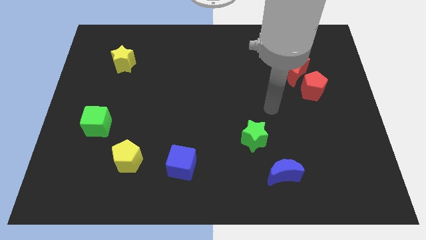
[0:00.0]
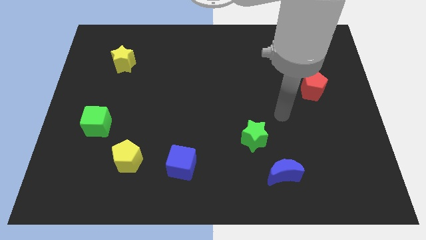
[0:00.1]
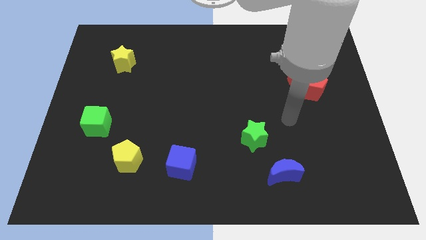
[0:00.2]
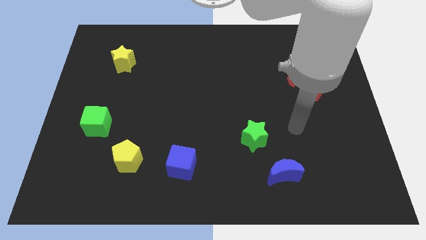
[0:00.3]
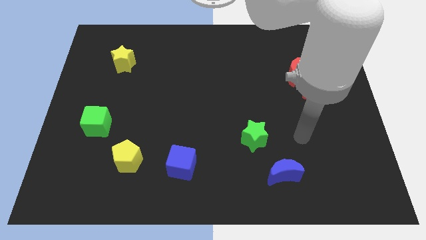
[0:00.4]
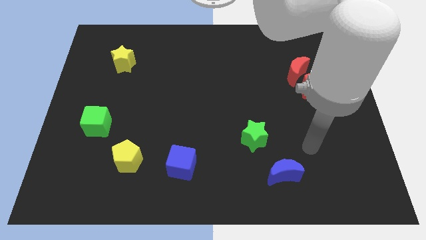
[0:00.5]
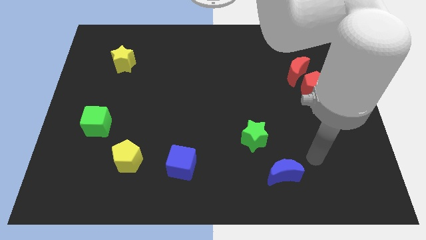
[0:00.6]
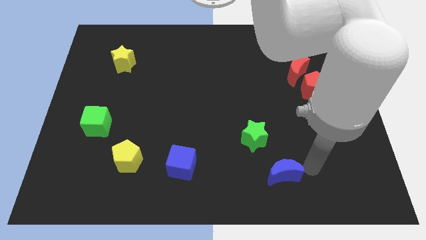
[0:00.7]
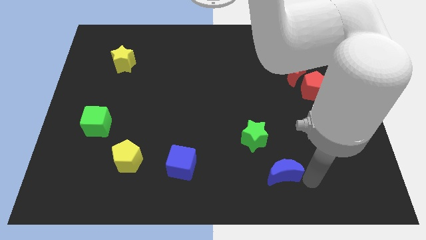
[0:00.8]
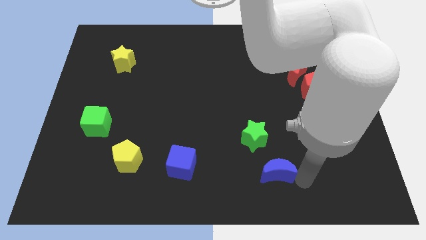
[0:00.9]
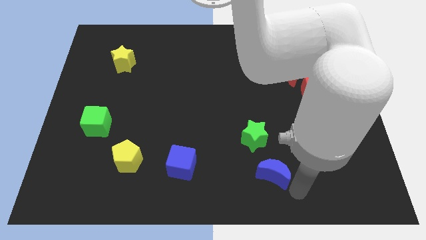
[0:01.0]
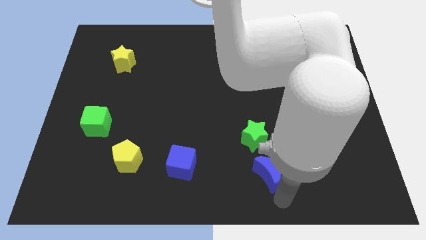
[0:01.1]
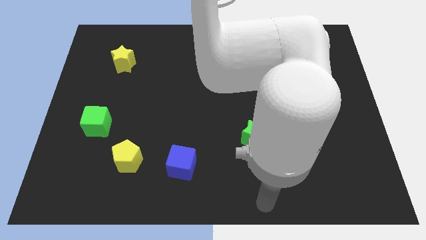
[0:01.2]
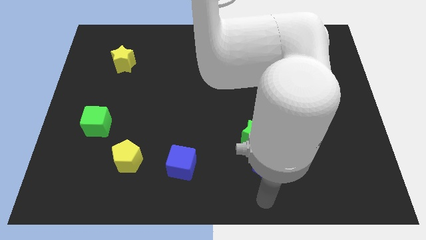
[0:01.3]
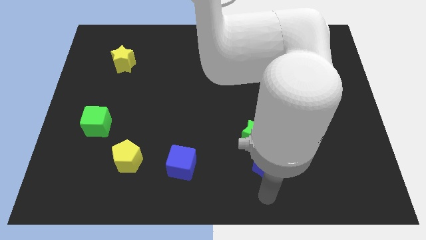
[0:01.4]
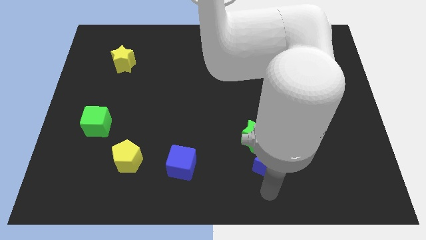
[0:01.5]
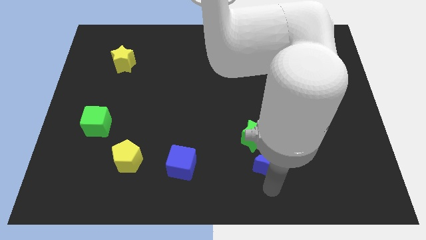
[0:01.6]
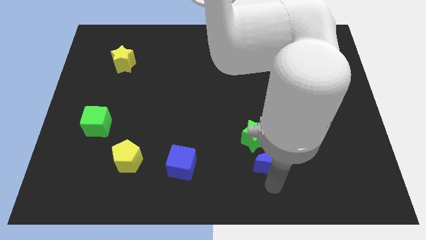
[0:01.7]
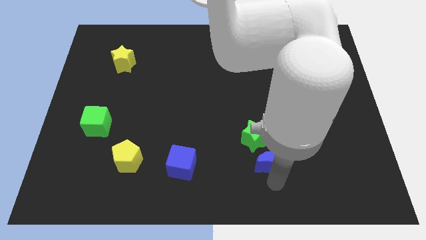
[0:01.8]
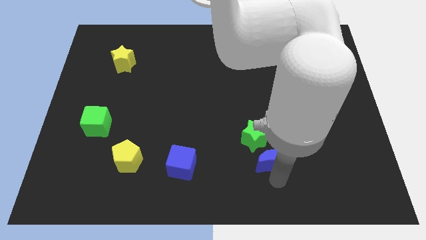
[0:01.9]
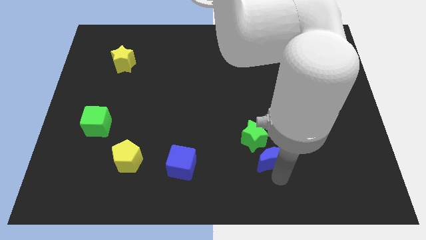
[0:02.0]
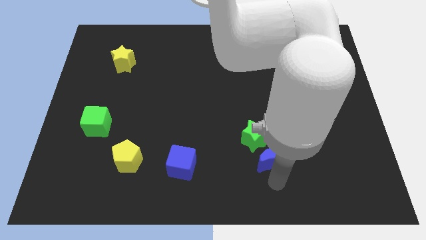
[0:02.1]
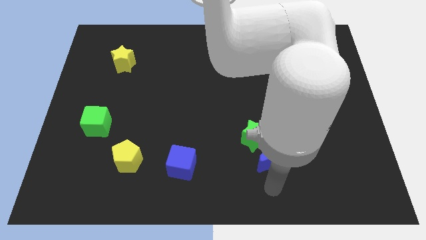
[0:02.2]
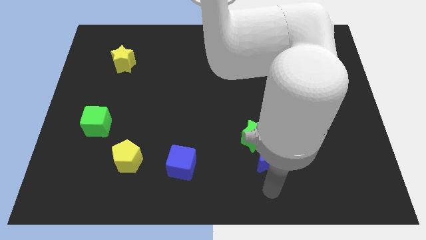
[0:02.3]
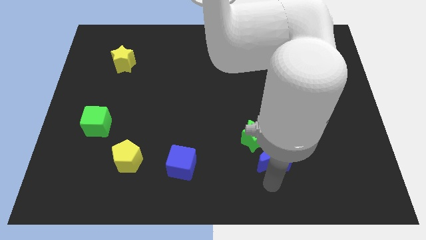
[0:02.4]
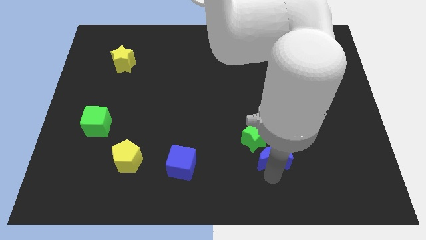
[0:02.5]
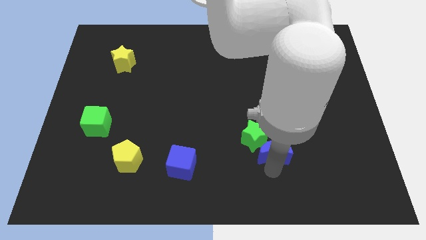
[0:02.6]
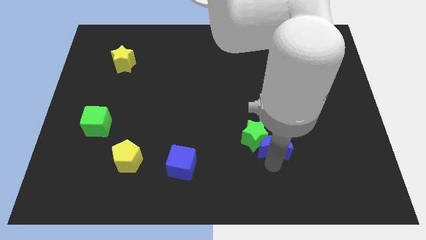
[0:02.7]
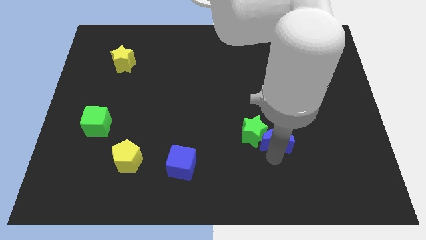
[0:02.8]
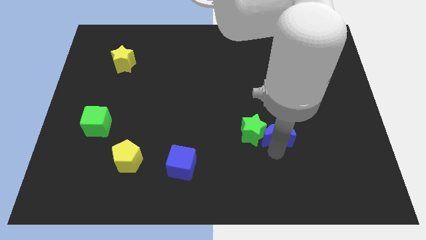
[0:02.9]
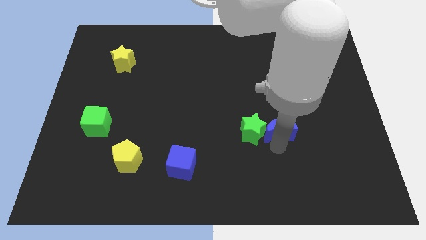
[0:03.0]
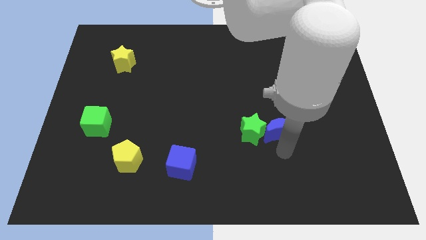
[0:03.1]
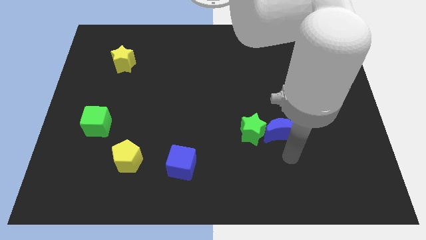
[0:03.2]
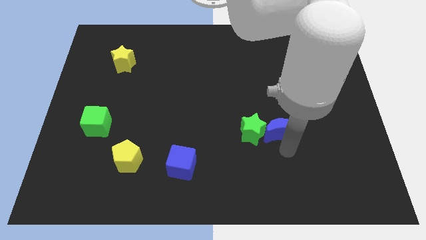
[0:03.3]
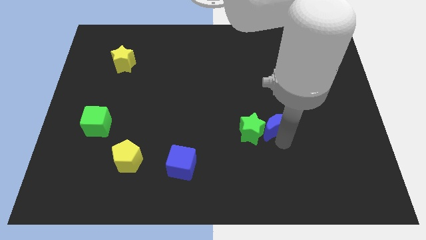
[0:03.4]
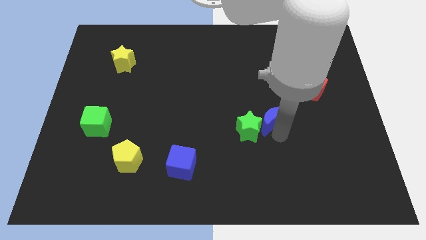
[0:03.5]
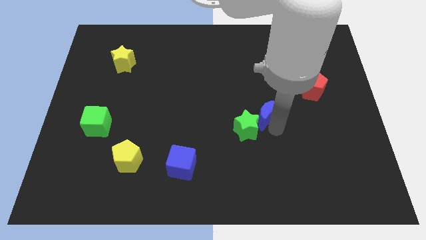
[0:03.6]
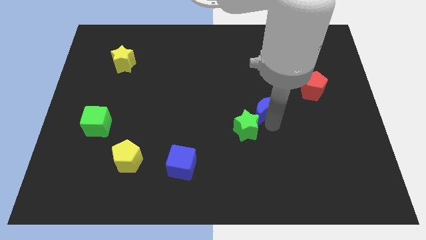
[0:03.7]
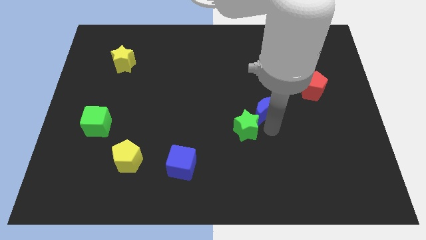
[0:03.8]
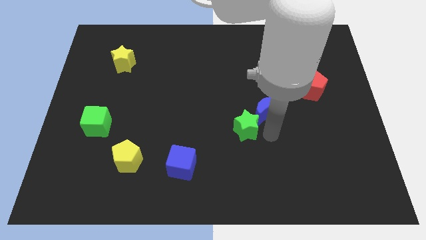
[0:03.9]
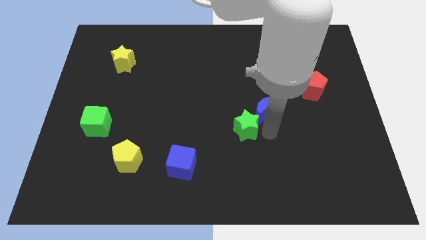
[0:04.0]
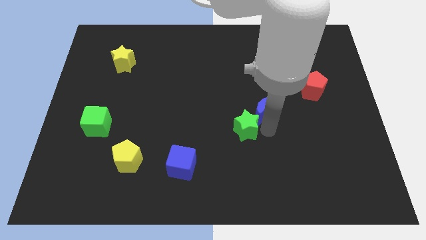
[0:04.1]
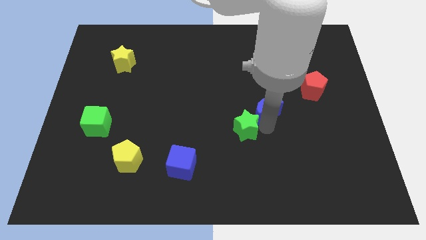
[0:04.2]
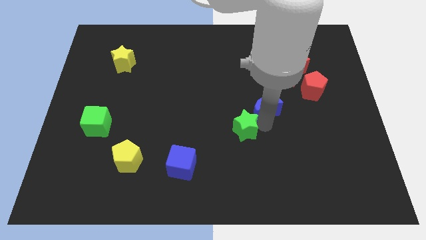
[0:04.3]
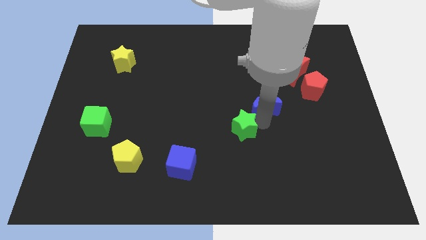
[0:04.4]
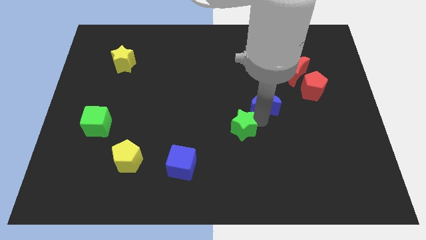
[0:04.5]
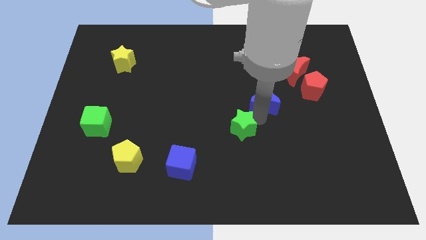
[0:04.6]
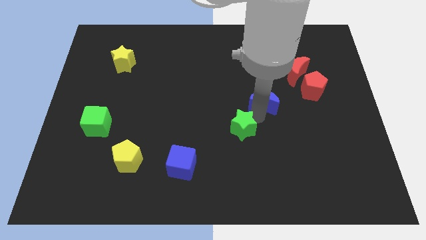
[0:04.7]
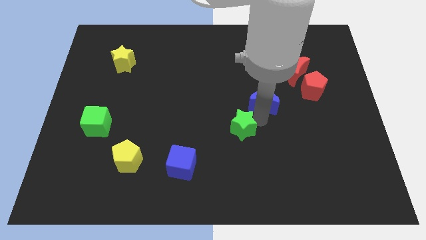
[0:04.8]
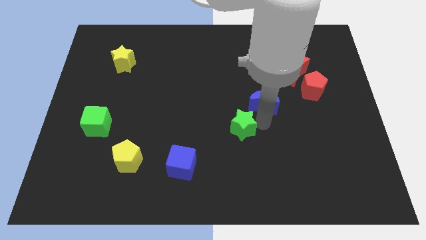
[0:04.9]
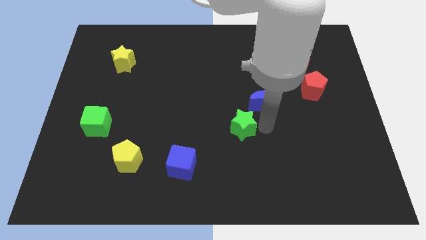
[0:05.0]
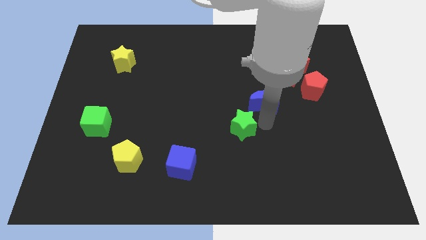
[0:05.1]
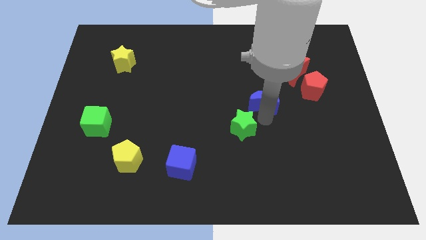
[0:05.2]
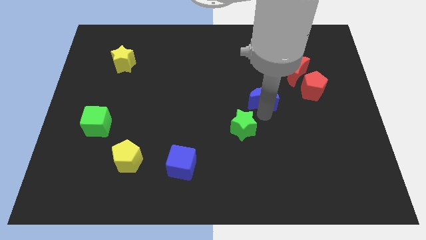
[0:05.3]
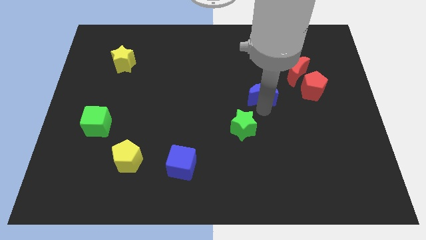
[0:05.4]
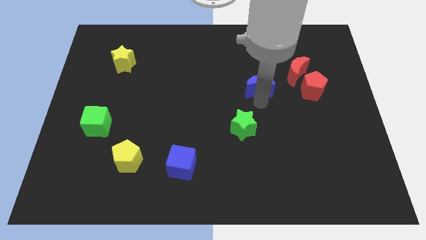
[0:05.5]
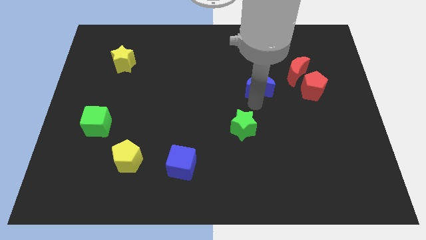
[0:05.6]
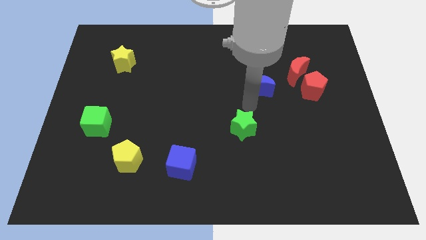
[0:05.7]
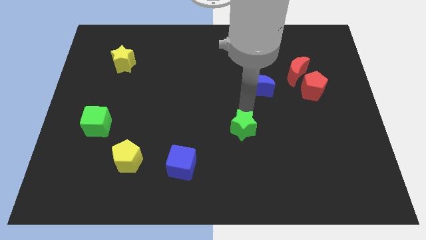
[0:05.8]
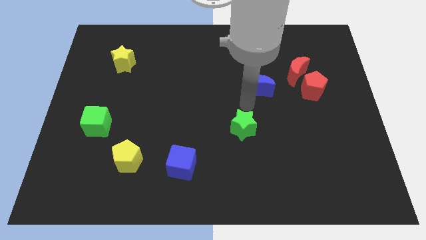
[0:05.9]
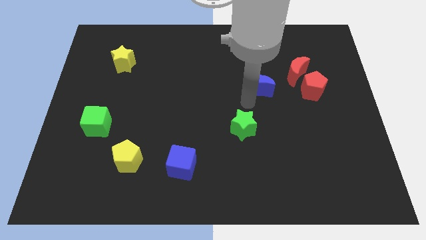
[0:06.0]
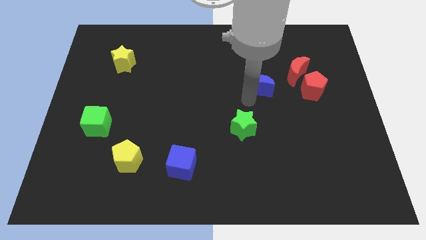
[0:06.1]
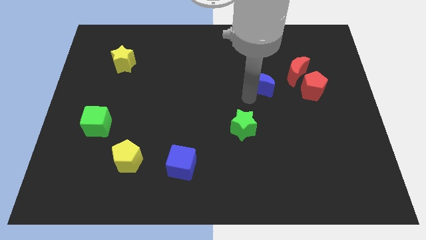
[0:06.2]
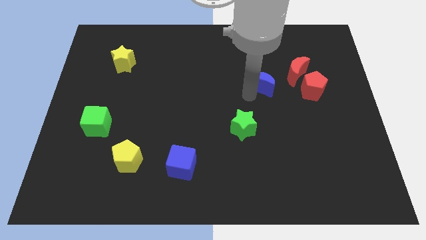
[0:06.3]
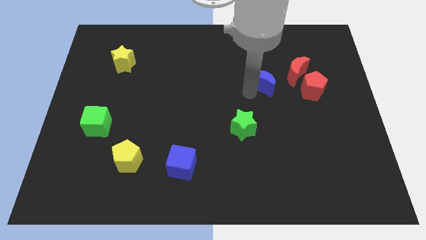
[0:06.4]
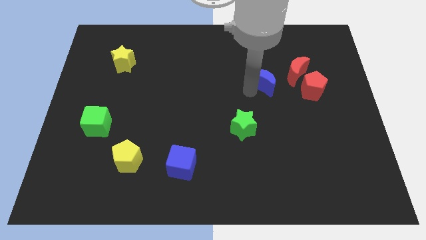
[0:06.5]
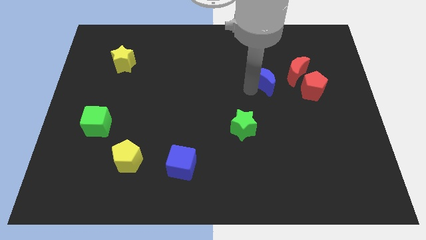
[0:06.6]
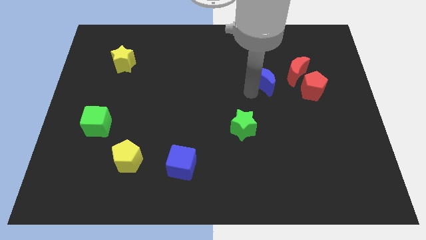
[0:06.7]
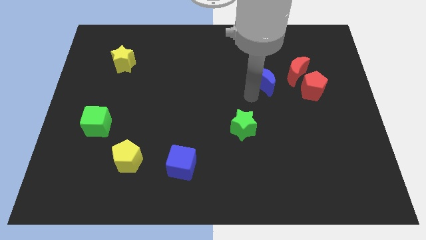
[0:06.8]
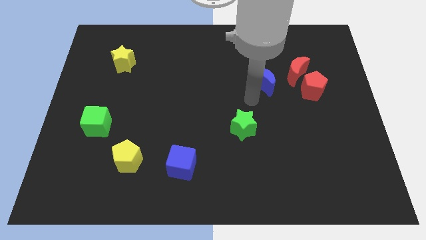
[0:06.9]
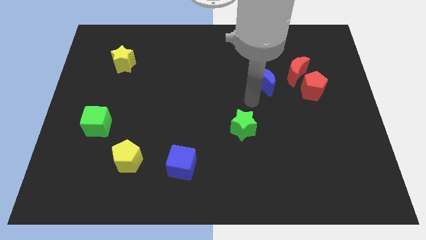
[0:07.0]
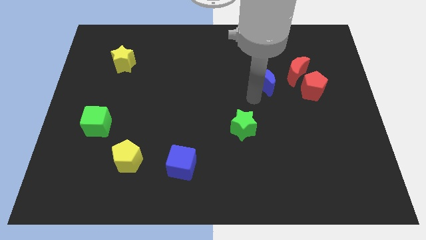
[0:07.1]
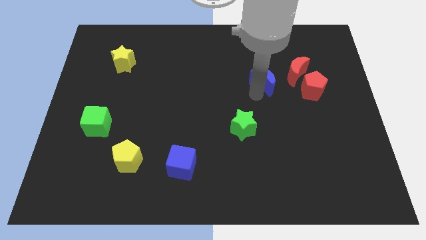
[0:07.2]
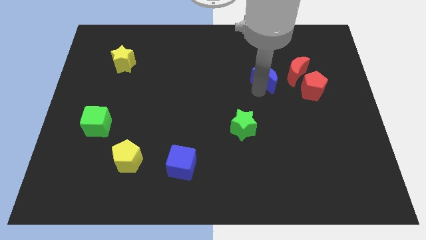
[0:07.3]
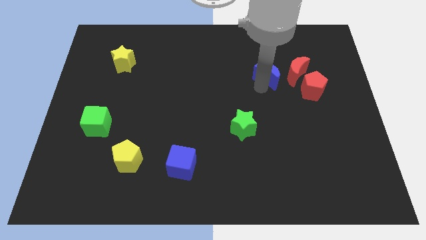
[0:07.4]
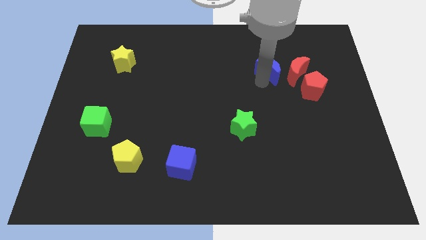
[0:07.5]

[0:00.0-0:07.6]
put the blue moon to the top left of the red pentagon
